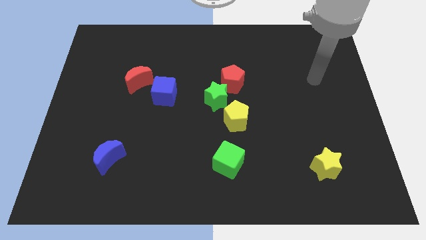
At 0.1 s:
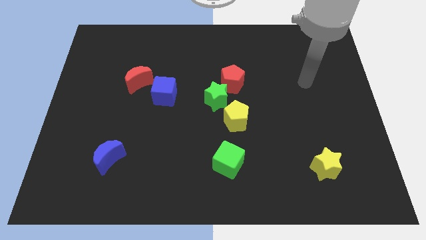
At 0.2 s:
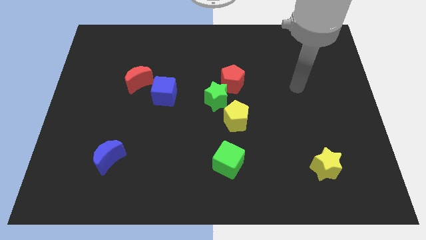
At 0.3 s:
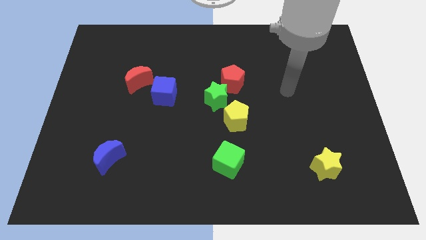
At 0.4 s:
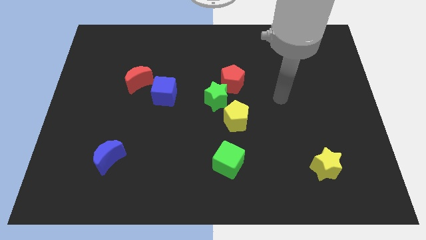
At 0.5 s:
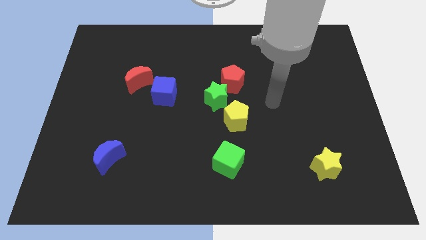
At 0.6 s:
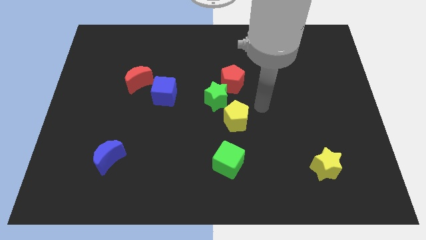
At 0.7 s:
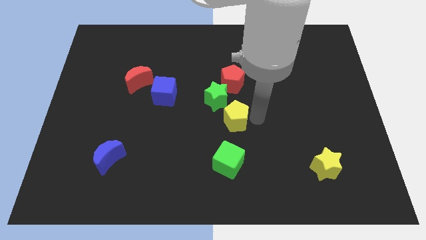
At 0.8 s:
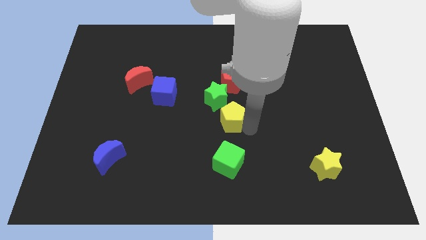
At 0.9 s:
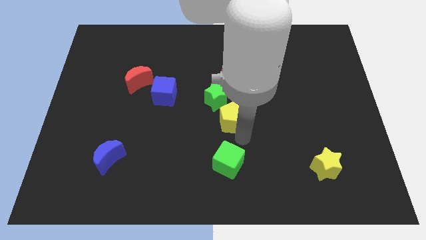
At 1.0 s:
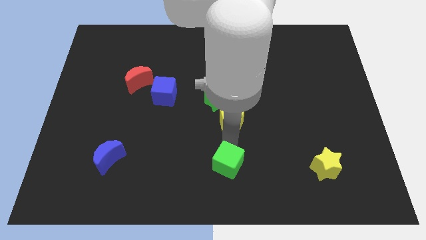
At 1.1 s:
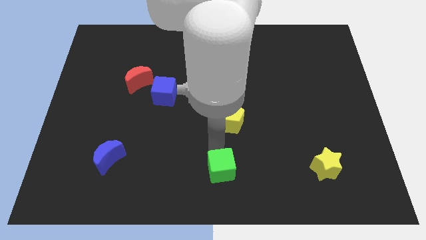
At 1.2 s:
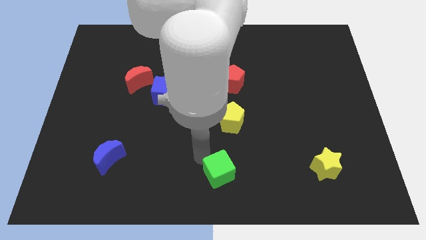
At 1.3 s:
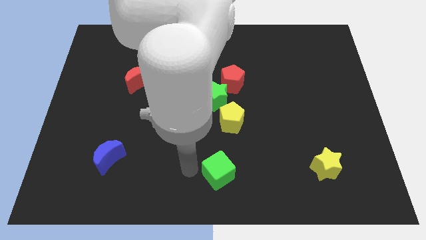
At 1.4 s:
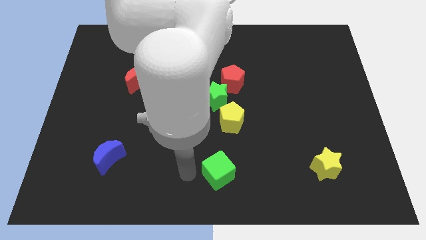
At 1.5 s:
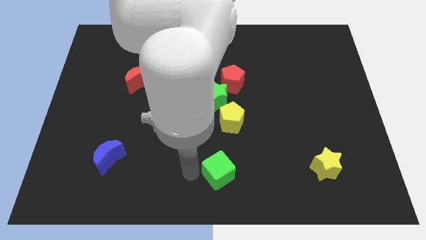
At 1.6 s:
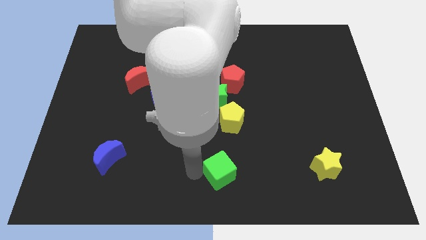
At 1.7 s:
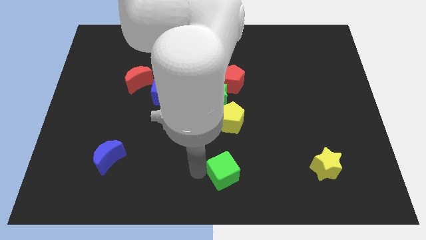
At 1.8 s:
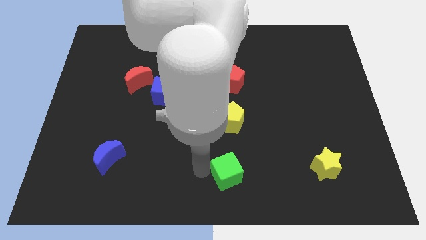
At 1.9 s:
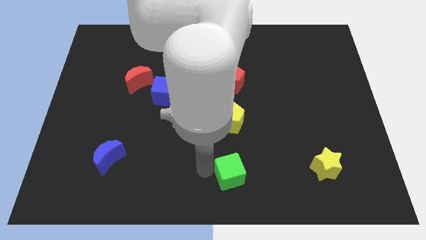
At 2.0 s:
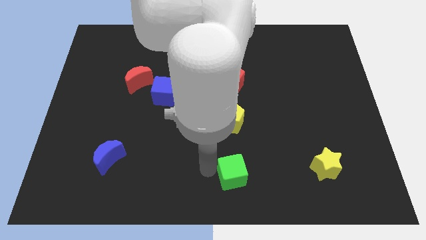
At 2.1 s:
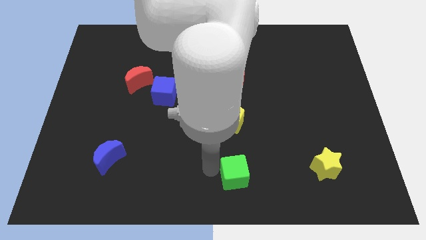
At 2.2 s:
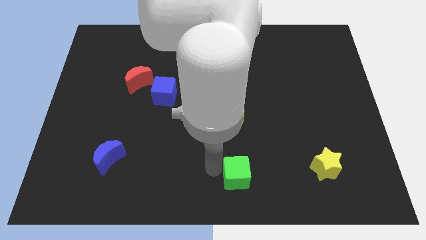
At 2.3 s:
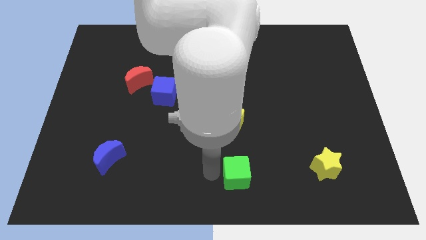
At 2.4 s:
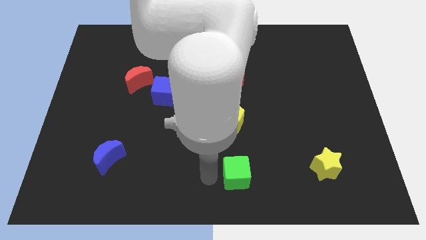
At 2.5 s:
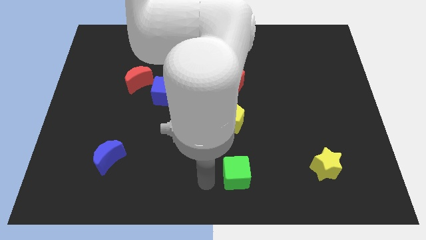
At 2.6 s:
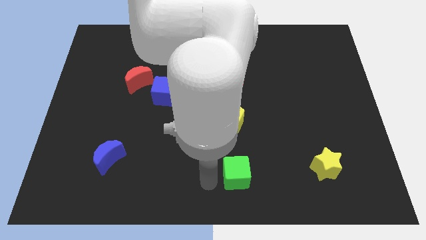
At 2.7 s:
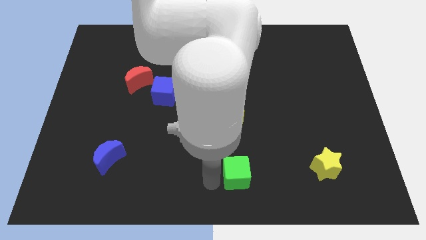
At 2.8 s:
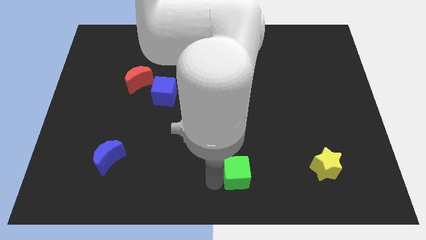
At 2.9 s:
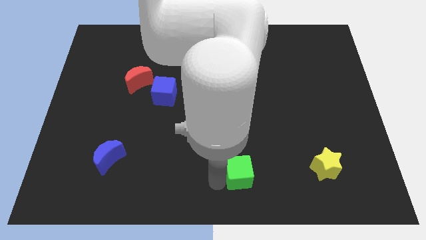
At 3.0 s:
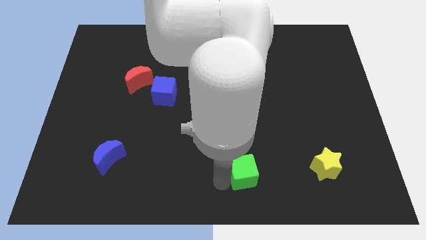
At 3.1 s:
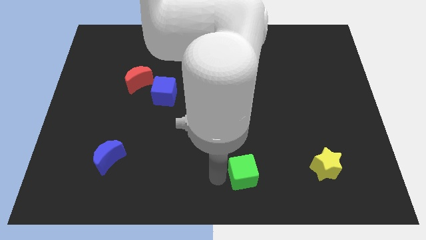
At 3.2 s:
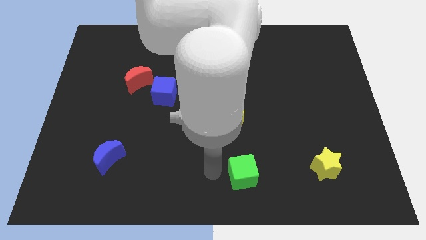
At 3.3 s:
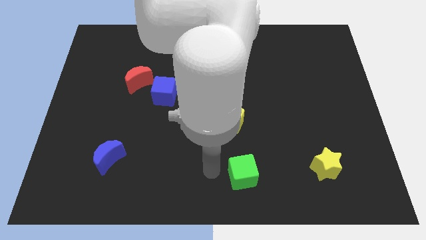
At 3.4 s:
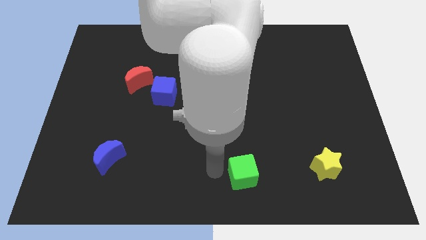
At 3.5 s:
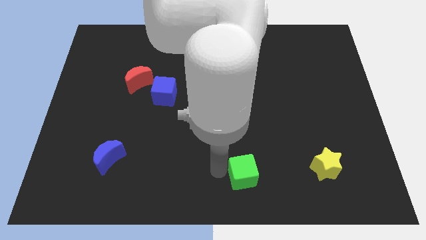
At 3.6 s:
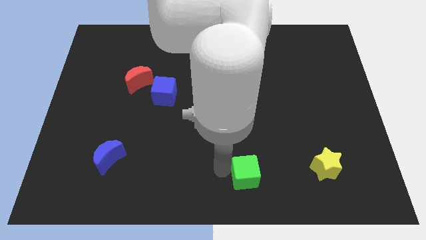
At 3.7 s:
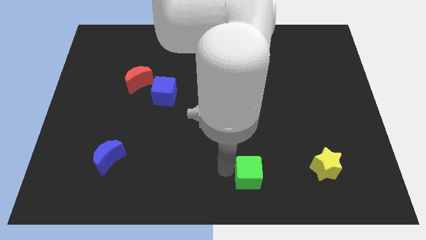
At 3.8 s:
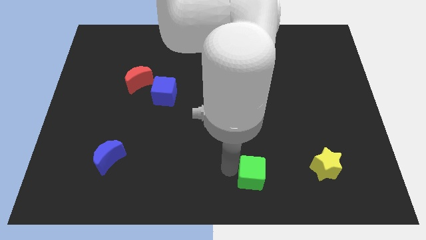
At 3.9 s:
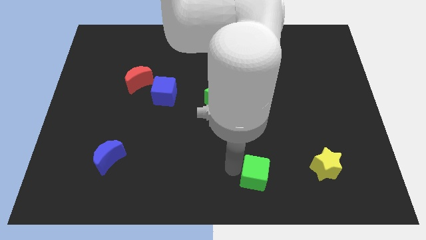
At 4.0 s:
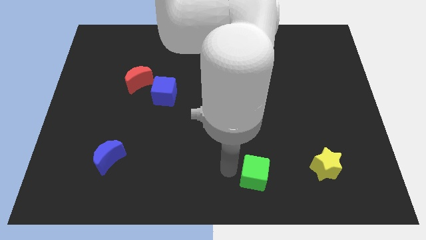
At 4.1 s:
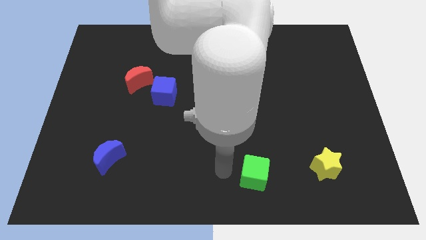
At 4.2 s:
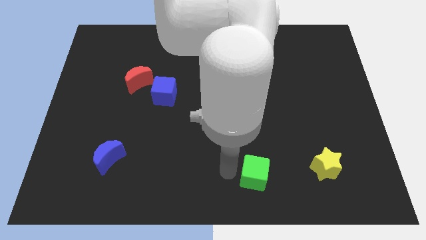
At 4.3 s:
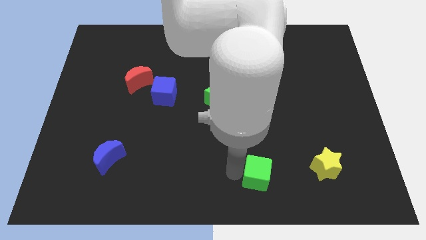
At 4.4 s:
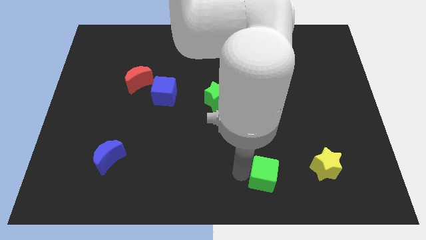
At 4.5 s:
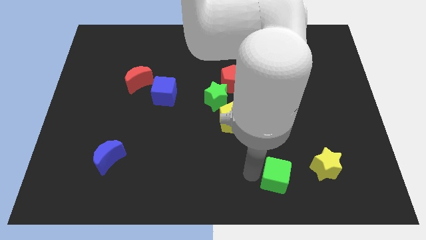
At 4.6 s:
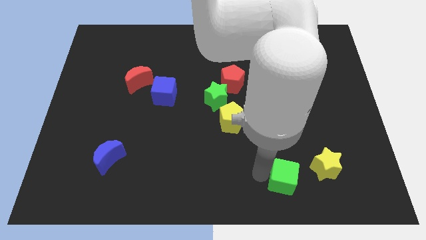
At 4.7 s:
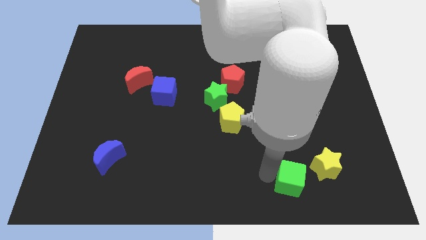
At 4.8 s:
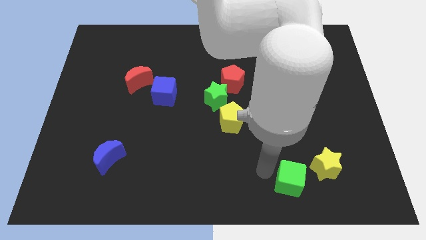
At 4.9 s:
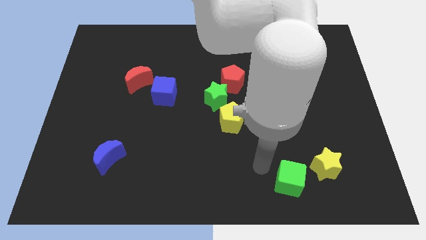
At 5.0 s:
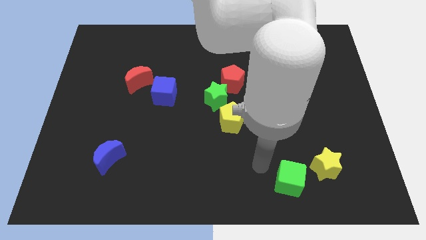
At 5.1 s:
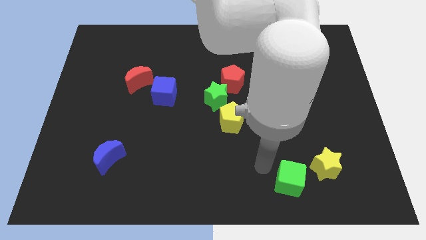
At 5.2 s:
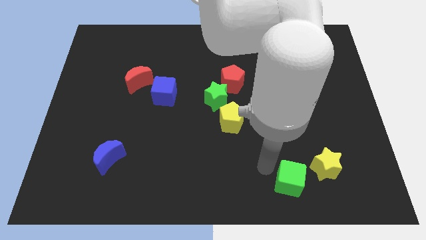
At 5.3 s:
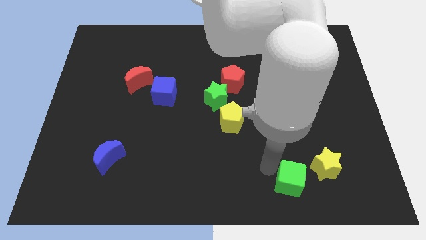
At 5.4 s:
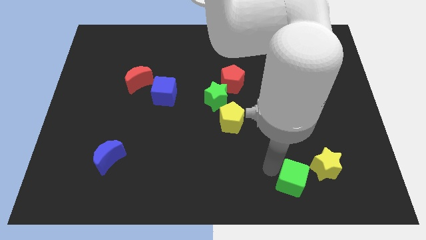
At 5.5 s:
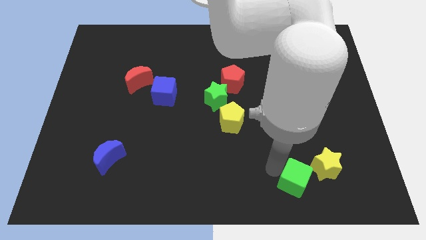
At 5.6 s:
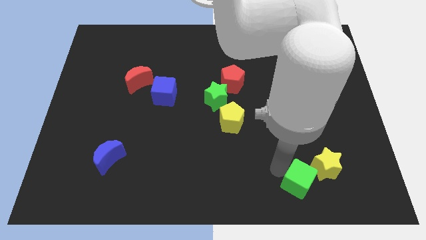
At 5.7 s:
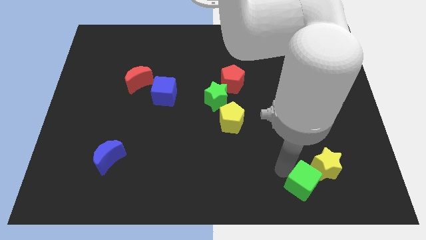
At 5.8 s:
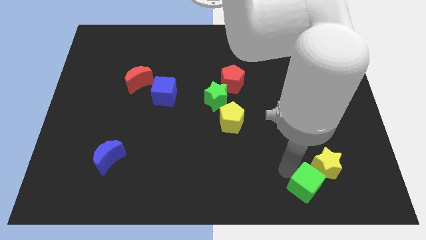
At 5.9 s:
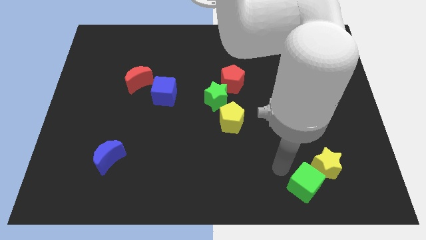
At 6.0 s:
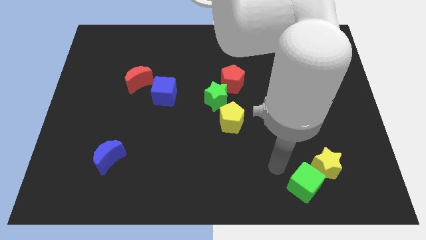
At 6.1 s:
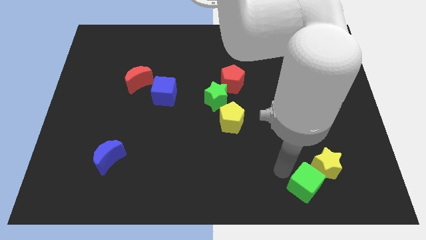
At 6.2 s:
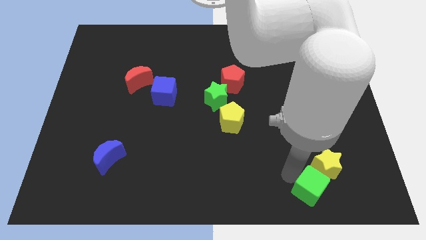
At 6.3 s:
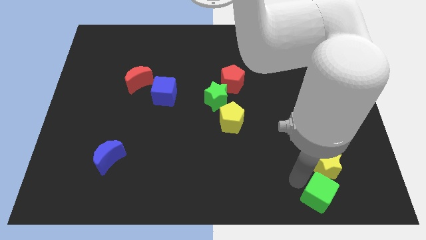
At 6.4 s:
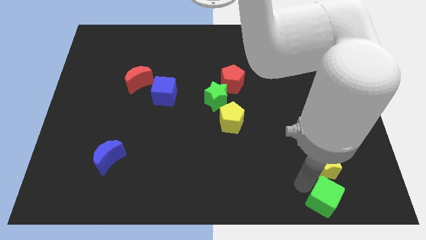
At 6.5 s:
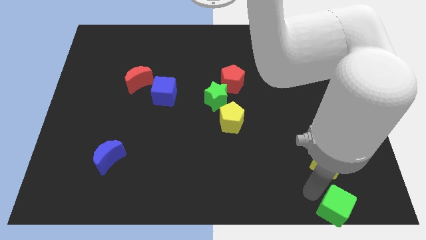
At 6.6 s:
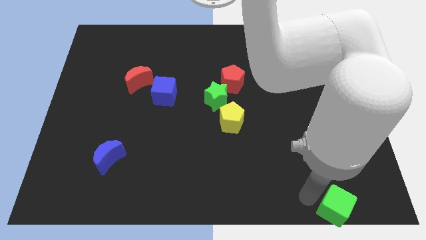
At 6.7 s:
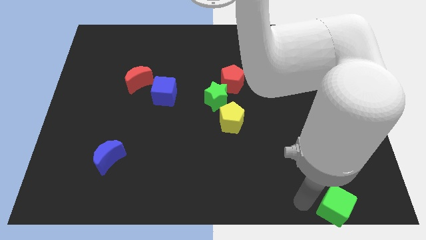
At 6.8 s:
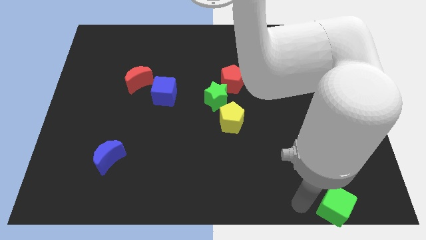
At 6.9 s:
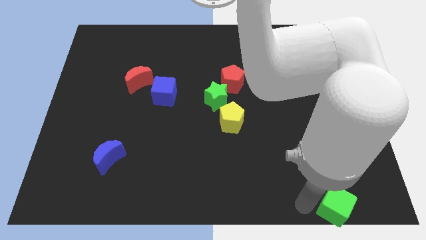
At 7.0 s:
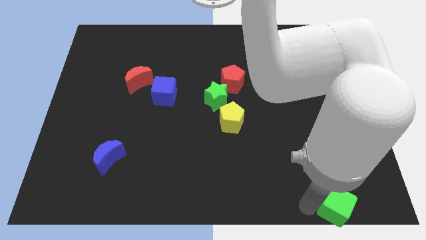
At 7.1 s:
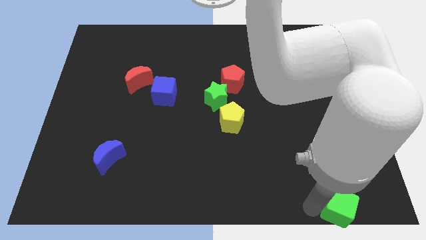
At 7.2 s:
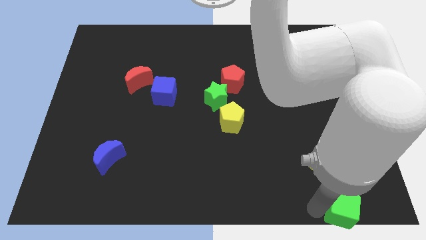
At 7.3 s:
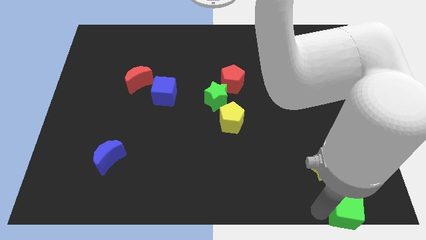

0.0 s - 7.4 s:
push the green cube to the bottom right of the board
